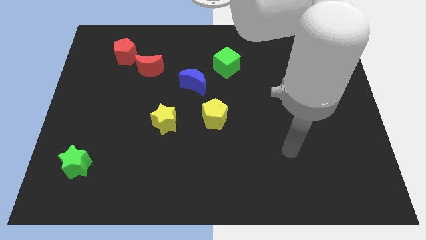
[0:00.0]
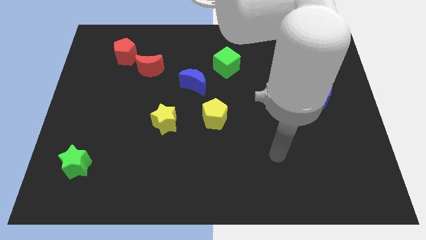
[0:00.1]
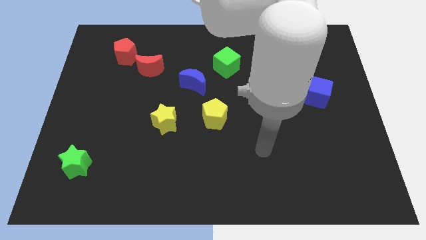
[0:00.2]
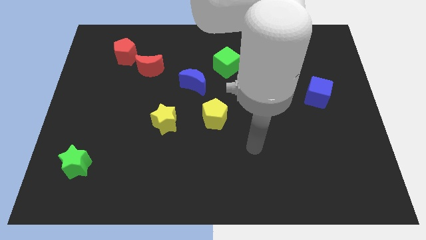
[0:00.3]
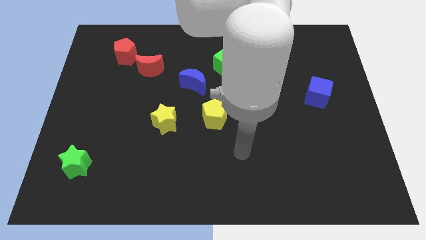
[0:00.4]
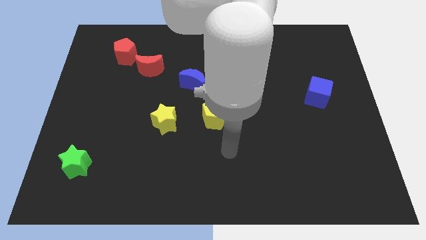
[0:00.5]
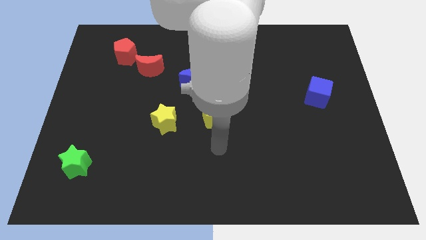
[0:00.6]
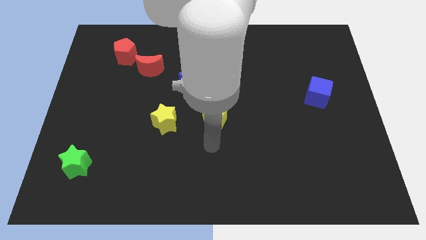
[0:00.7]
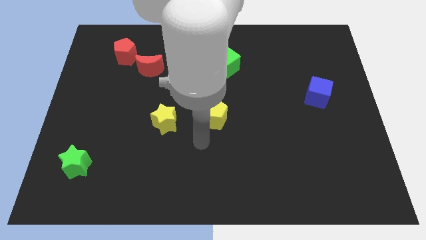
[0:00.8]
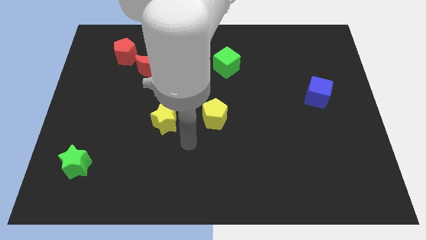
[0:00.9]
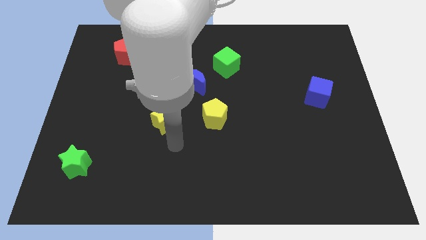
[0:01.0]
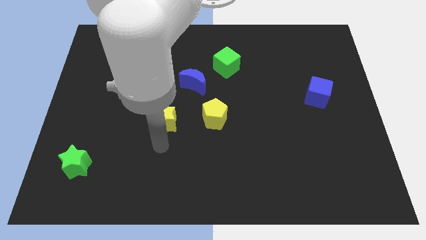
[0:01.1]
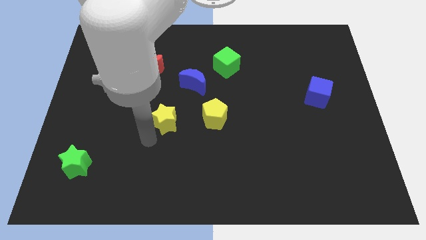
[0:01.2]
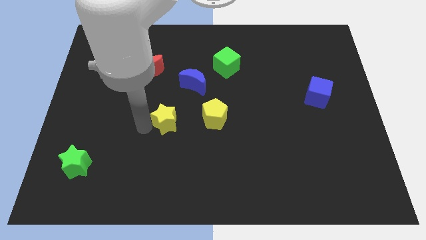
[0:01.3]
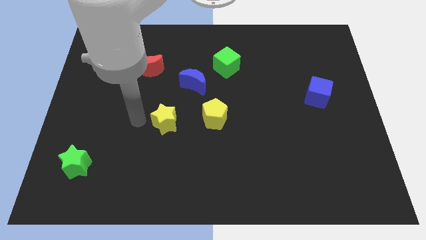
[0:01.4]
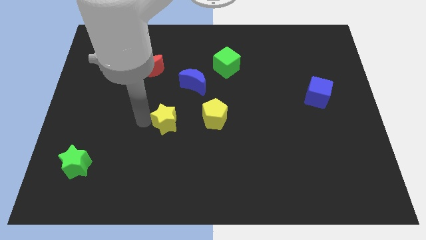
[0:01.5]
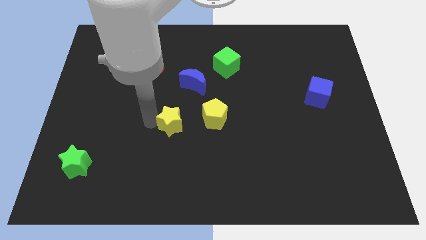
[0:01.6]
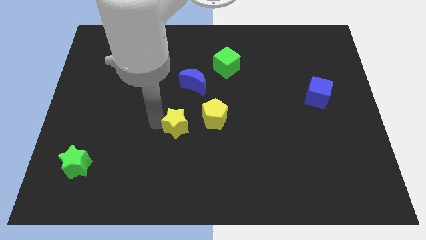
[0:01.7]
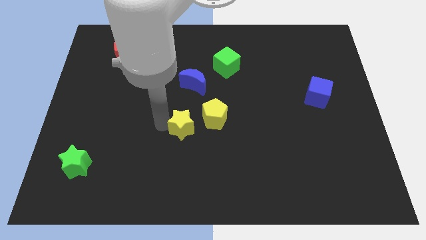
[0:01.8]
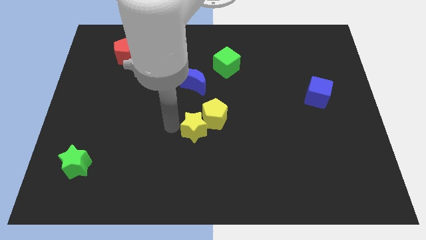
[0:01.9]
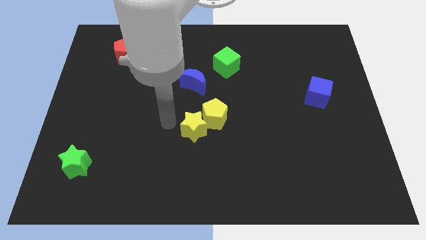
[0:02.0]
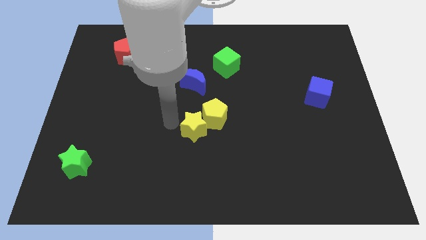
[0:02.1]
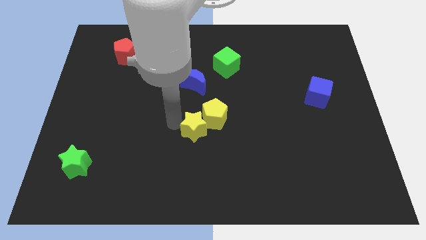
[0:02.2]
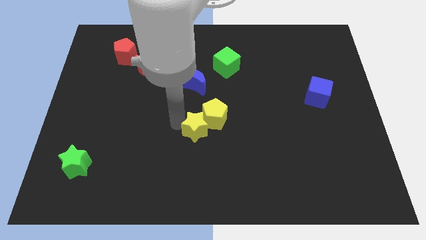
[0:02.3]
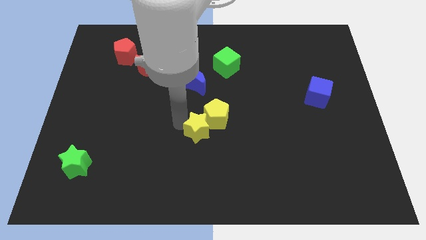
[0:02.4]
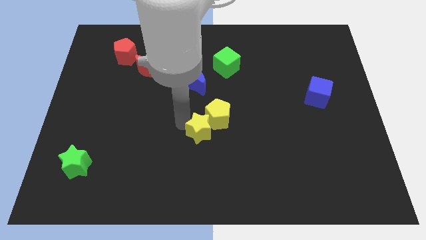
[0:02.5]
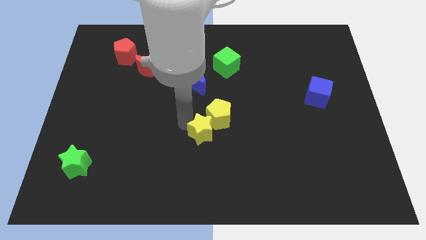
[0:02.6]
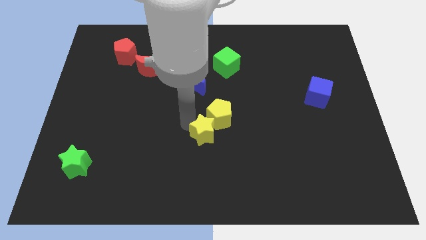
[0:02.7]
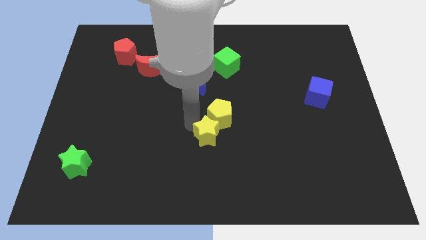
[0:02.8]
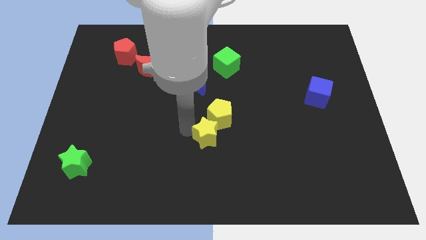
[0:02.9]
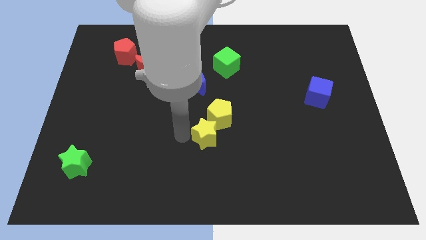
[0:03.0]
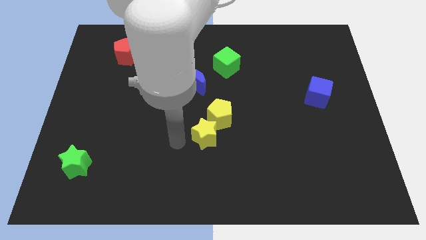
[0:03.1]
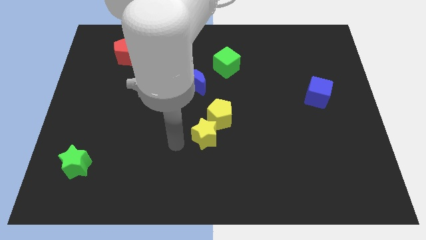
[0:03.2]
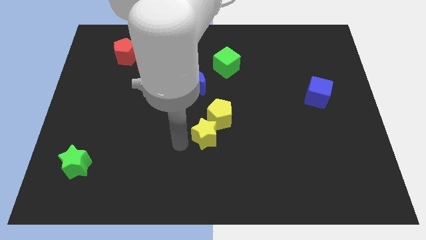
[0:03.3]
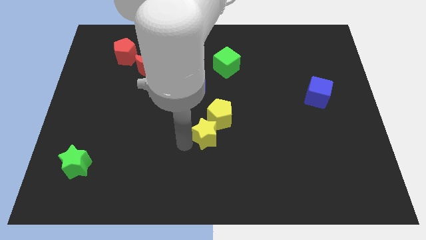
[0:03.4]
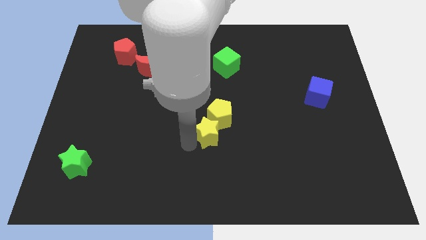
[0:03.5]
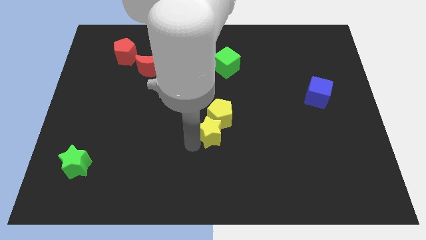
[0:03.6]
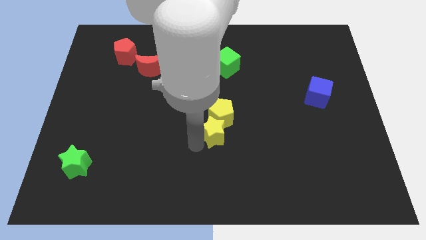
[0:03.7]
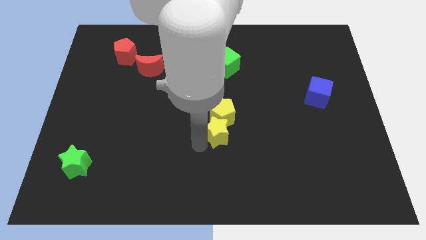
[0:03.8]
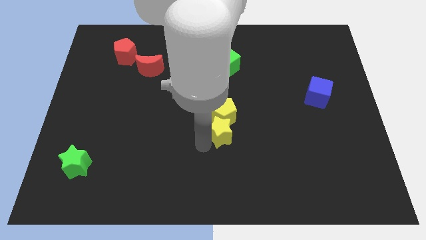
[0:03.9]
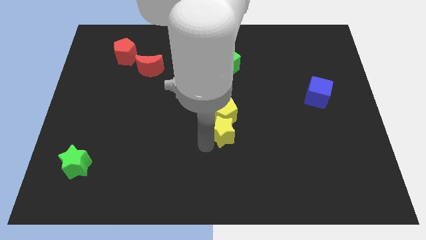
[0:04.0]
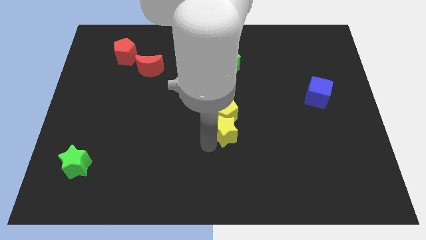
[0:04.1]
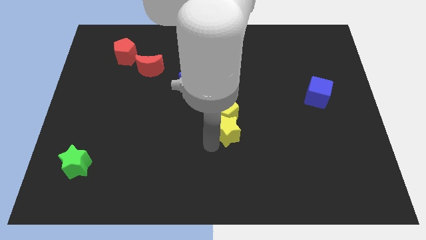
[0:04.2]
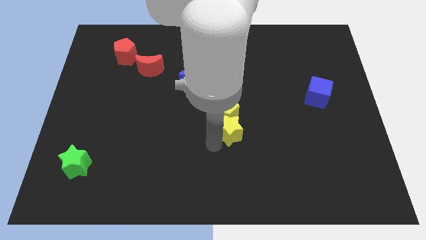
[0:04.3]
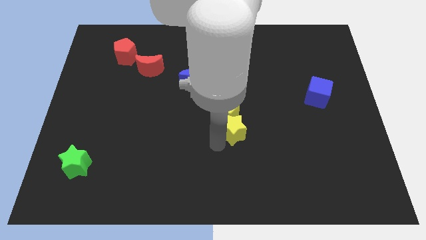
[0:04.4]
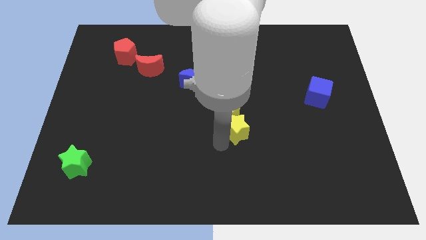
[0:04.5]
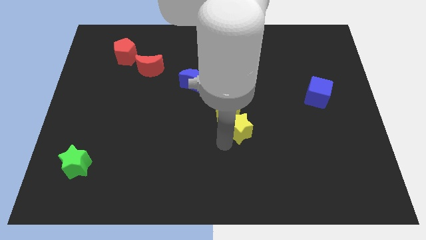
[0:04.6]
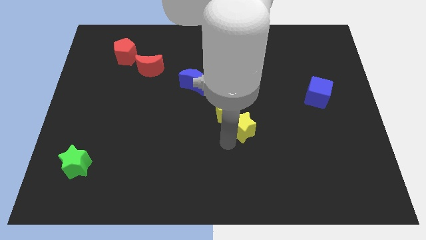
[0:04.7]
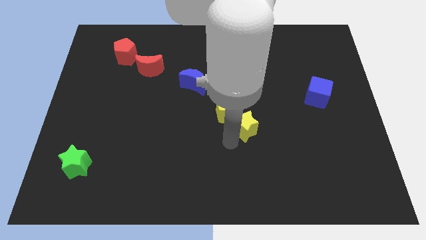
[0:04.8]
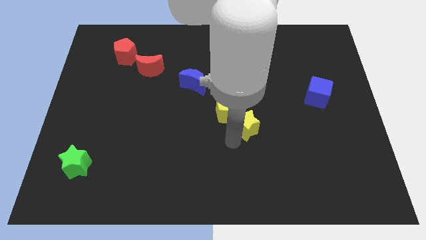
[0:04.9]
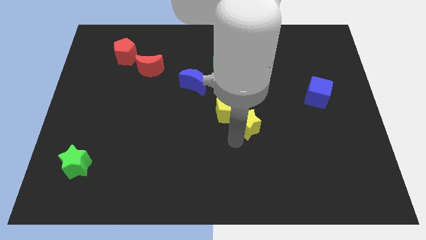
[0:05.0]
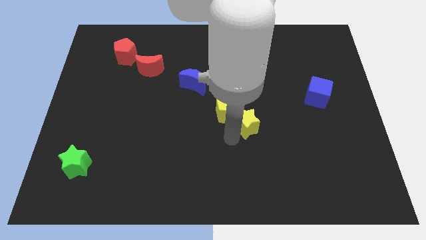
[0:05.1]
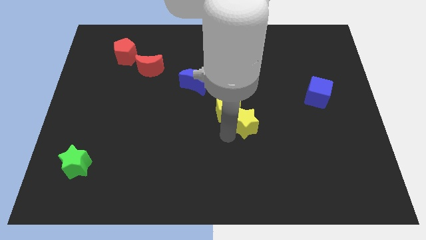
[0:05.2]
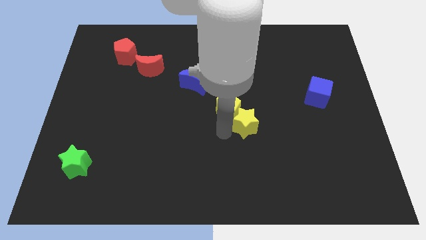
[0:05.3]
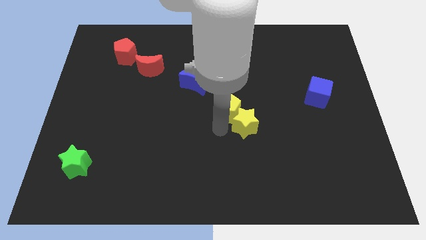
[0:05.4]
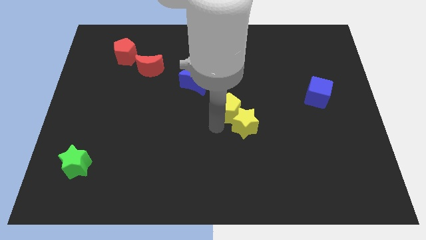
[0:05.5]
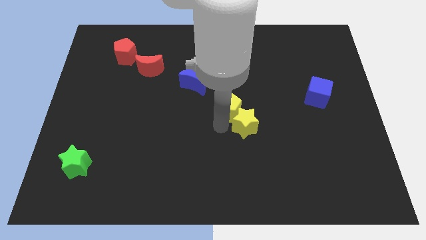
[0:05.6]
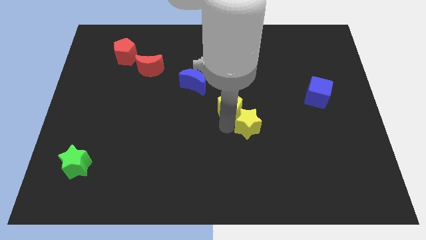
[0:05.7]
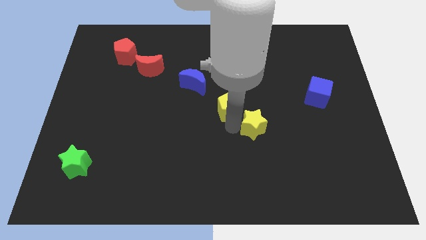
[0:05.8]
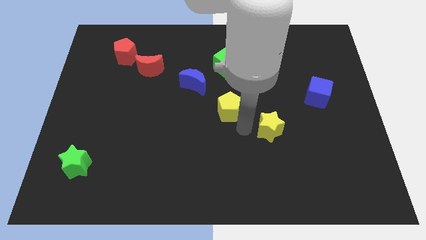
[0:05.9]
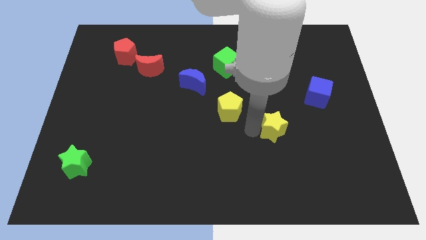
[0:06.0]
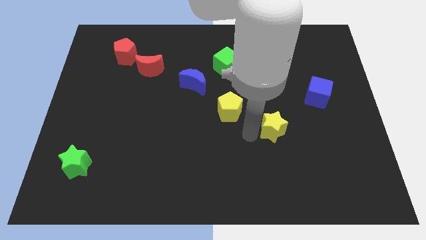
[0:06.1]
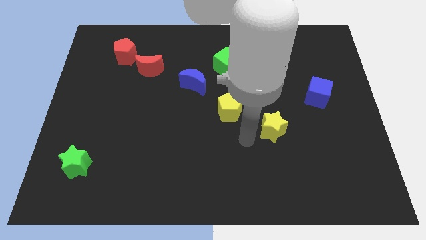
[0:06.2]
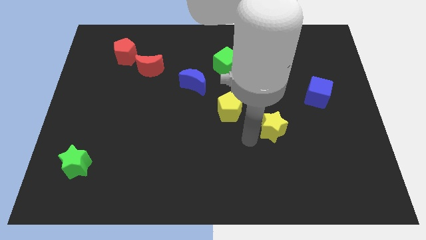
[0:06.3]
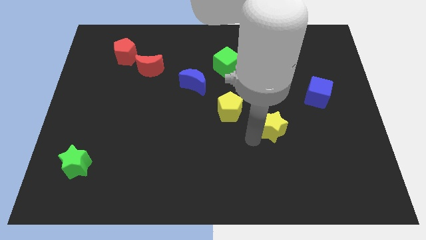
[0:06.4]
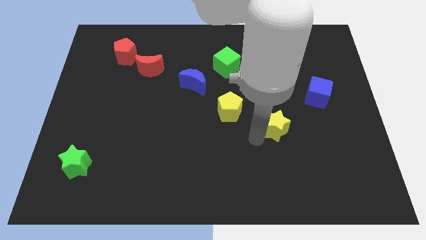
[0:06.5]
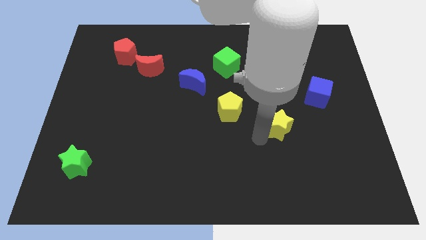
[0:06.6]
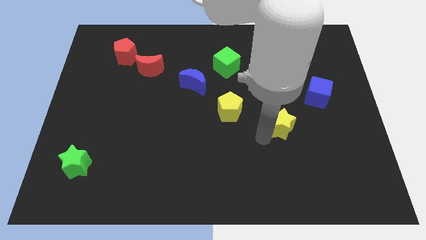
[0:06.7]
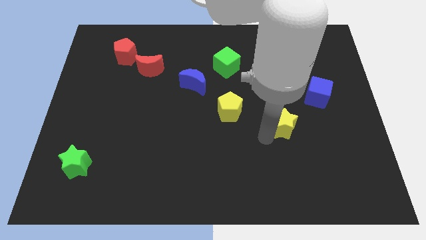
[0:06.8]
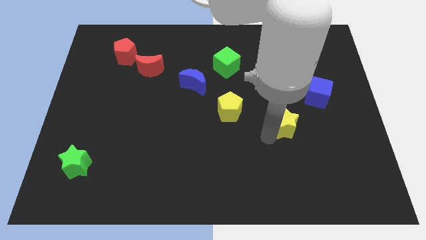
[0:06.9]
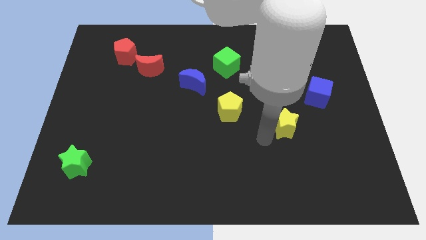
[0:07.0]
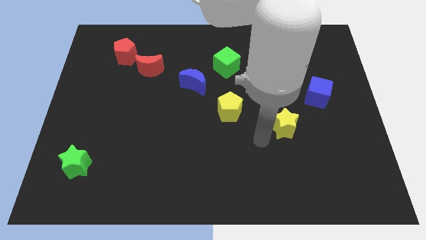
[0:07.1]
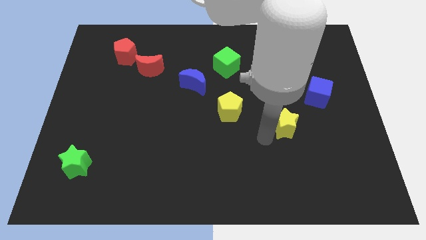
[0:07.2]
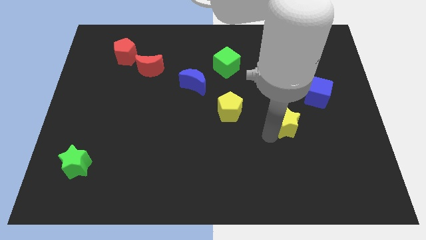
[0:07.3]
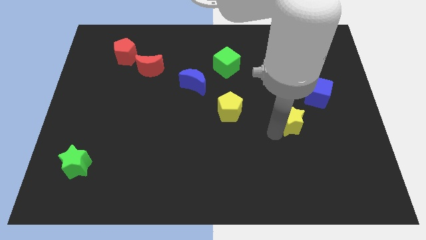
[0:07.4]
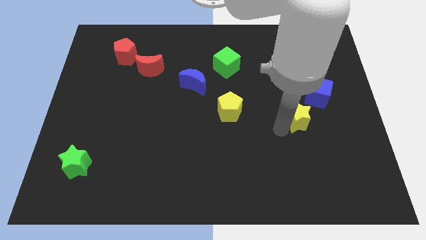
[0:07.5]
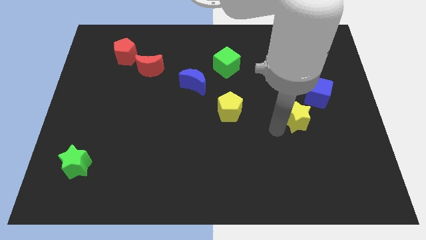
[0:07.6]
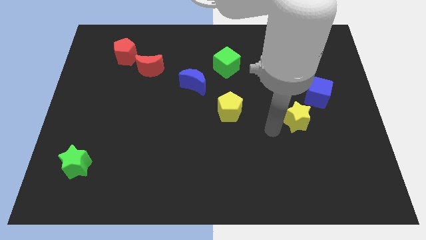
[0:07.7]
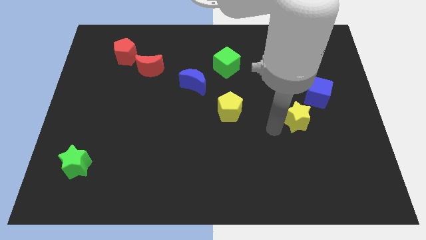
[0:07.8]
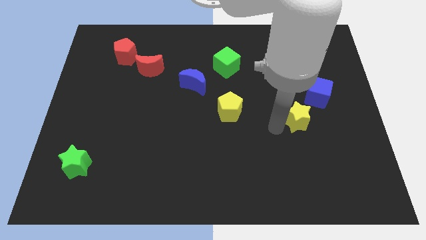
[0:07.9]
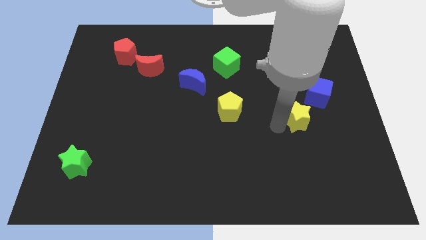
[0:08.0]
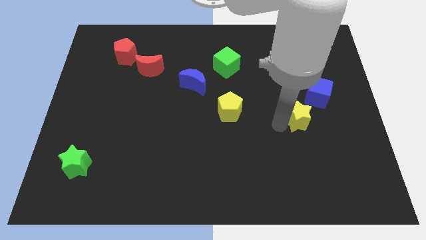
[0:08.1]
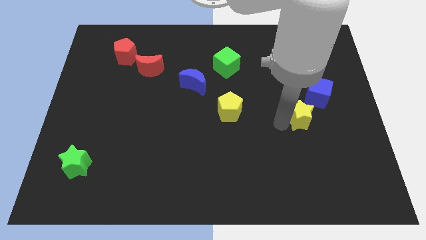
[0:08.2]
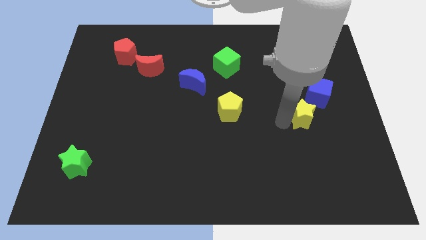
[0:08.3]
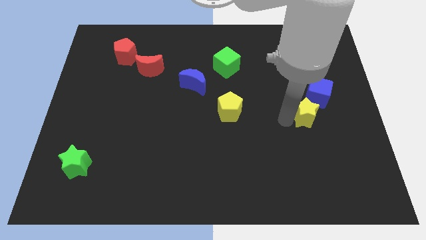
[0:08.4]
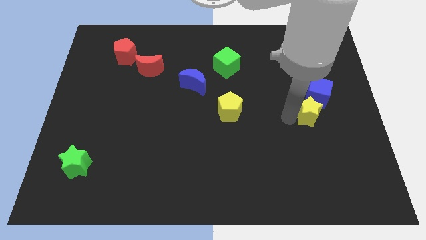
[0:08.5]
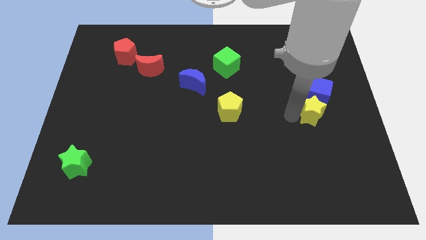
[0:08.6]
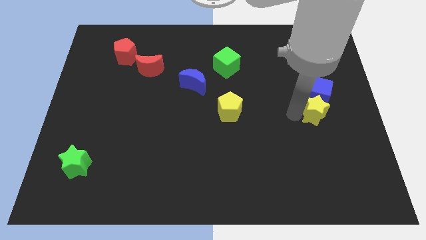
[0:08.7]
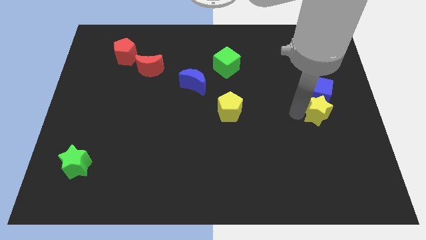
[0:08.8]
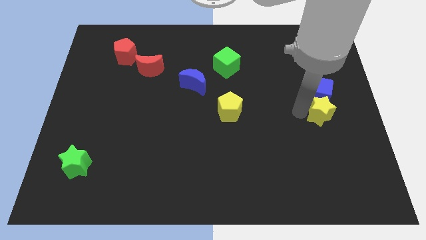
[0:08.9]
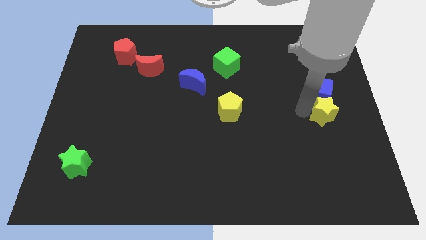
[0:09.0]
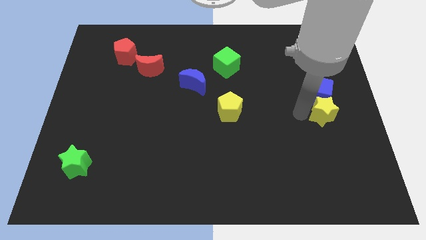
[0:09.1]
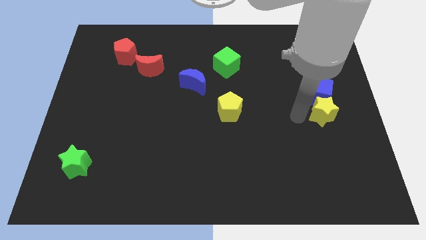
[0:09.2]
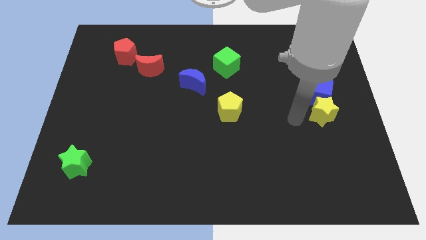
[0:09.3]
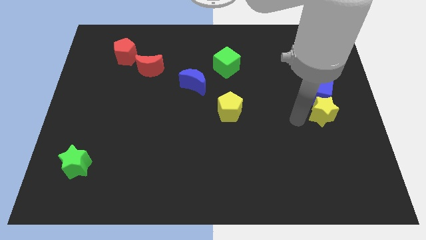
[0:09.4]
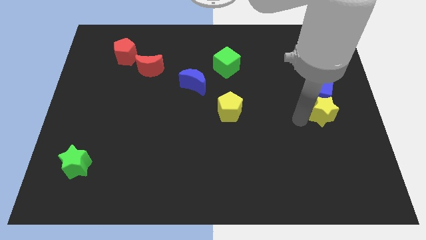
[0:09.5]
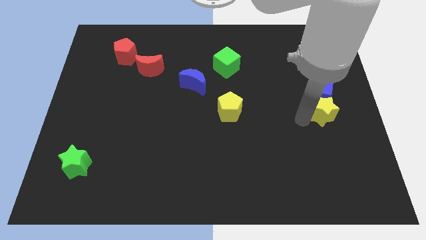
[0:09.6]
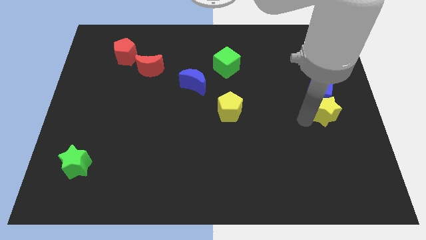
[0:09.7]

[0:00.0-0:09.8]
put the yellow star to the right side of the board
